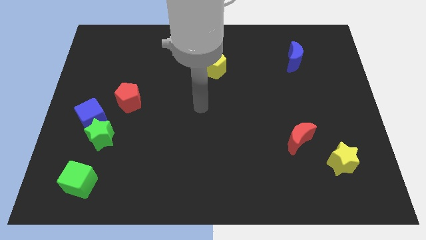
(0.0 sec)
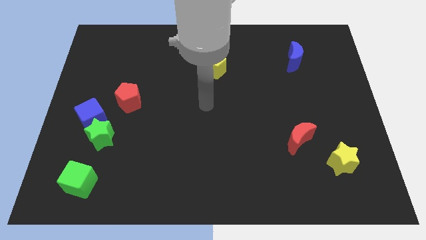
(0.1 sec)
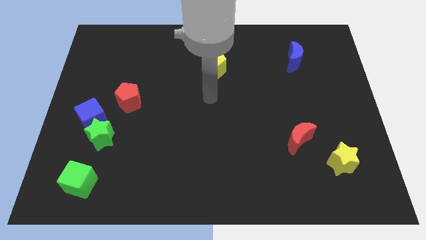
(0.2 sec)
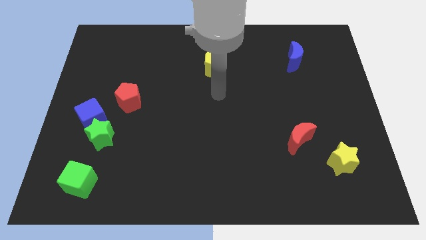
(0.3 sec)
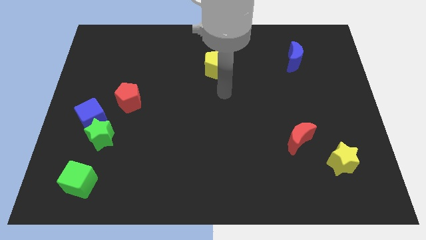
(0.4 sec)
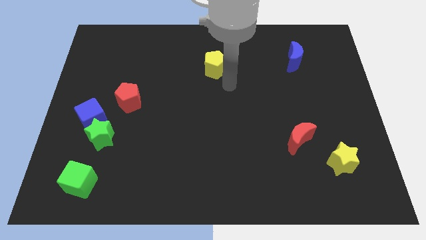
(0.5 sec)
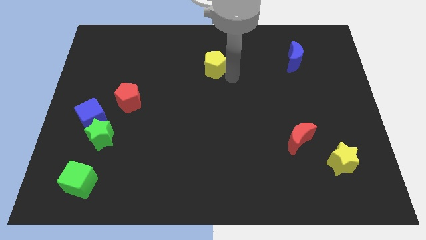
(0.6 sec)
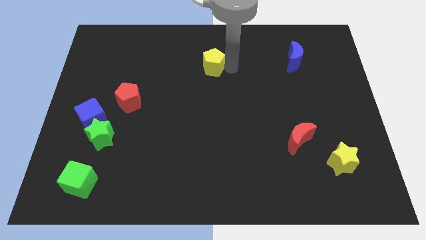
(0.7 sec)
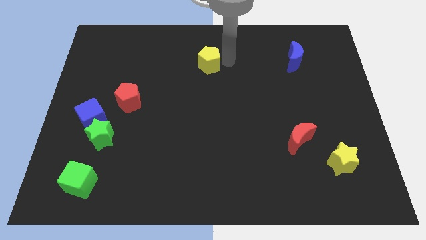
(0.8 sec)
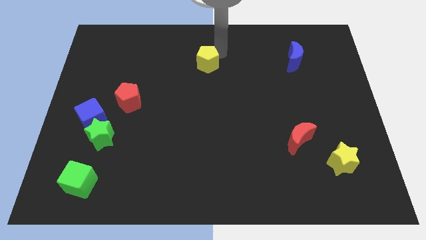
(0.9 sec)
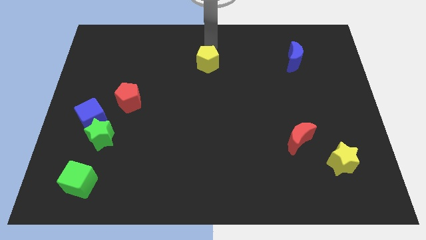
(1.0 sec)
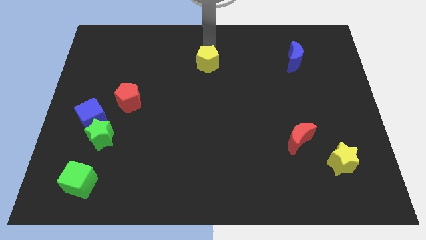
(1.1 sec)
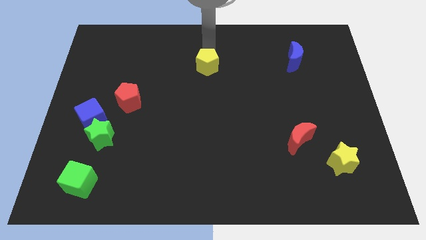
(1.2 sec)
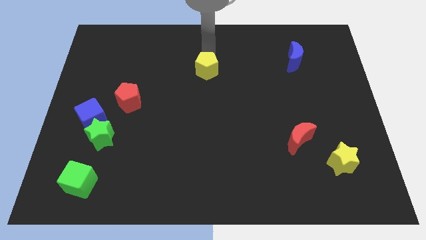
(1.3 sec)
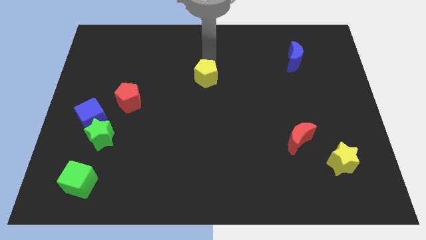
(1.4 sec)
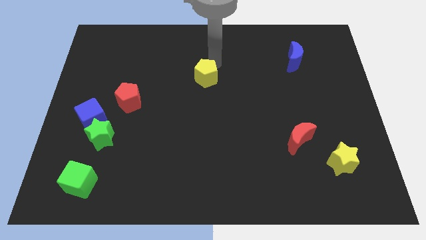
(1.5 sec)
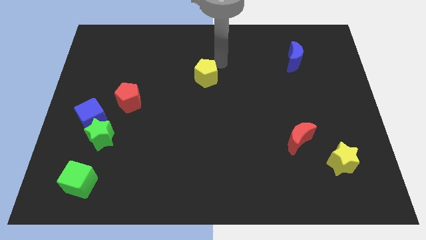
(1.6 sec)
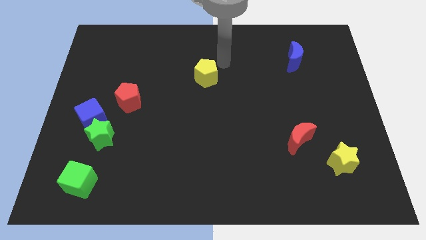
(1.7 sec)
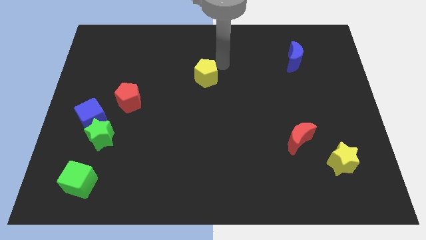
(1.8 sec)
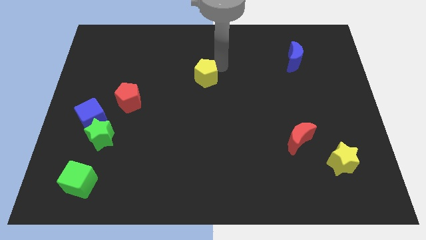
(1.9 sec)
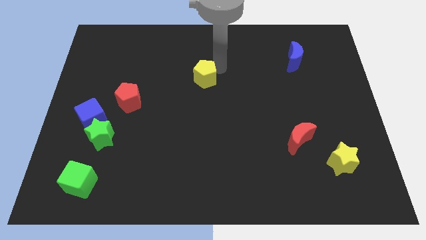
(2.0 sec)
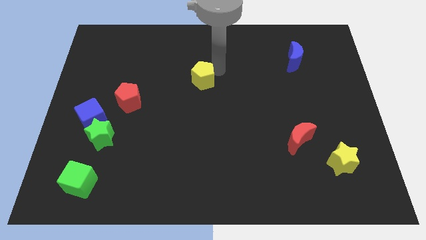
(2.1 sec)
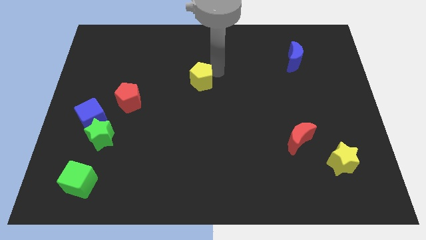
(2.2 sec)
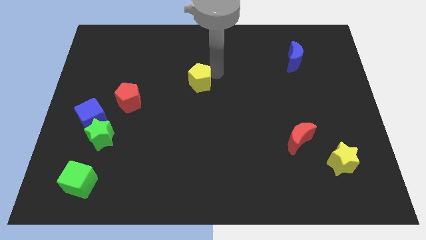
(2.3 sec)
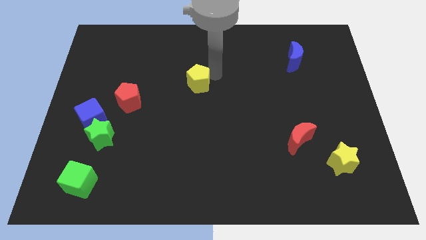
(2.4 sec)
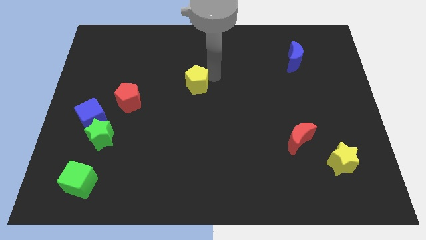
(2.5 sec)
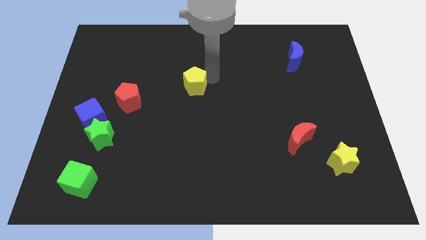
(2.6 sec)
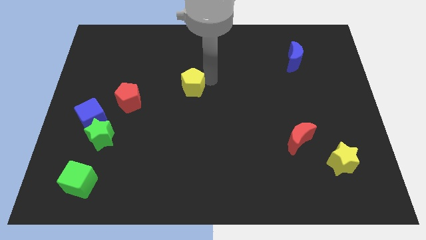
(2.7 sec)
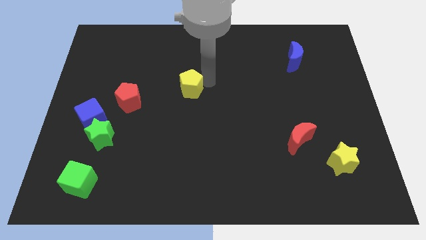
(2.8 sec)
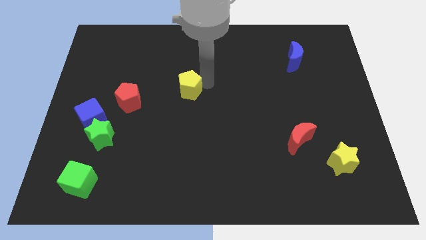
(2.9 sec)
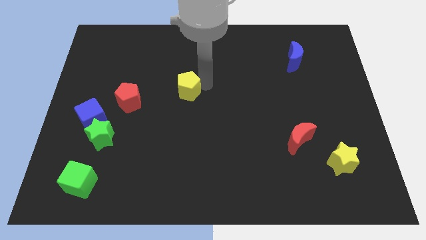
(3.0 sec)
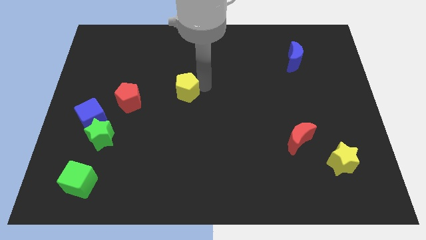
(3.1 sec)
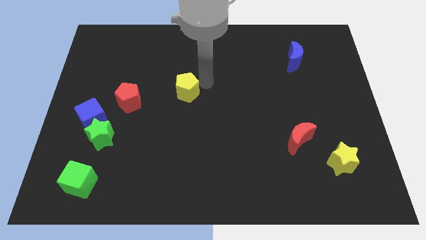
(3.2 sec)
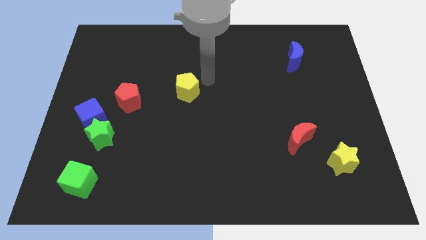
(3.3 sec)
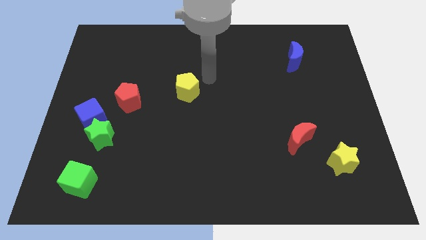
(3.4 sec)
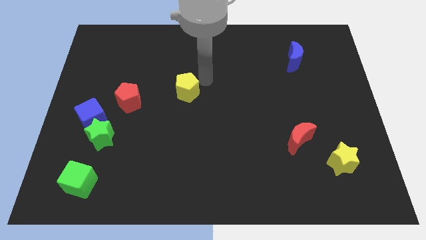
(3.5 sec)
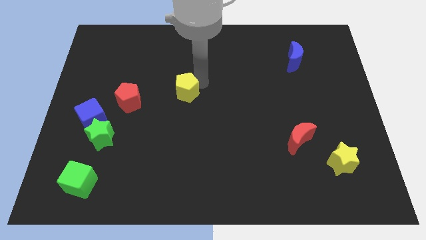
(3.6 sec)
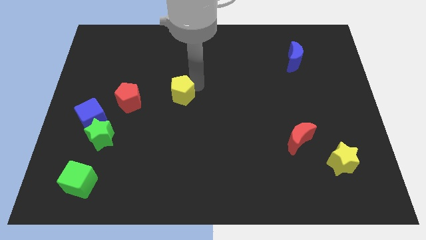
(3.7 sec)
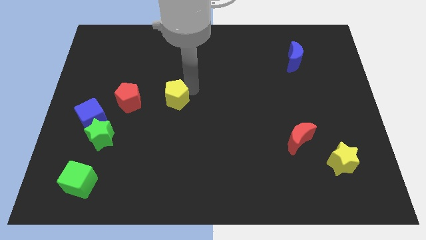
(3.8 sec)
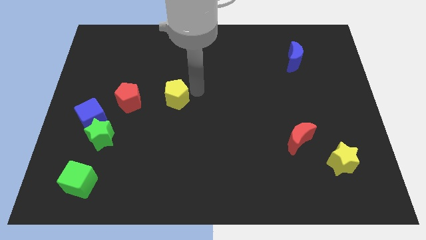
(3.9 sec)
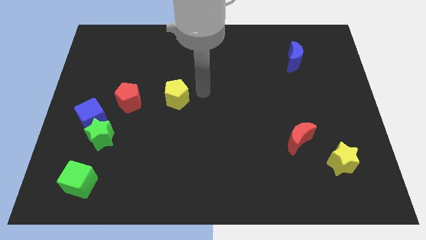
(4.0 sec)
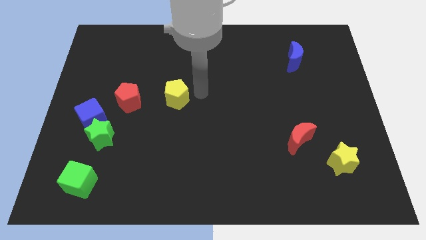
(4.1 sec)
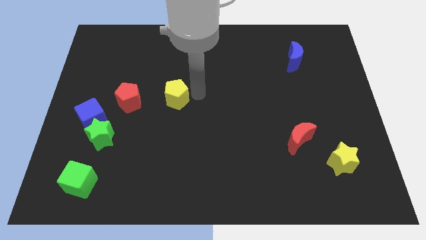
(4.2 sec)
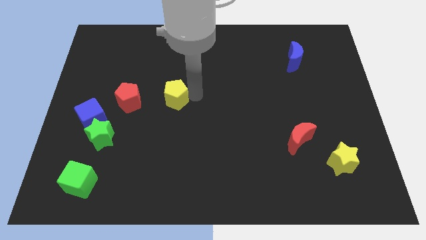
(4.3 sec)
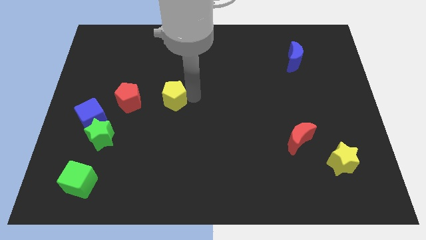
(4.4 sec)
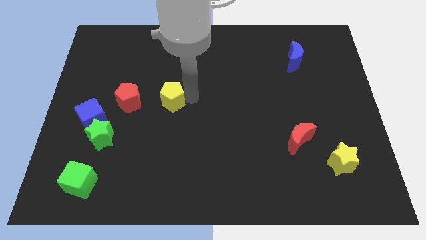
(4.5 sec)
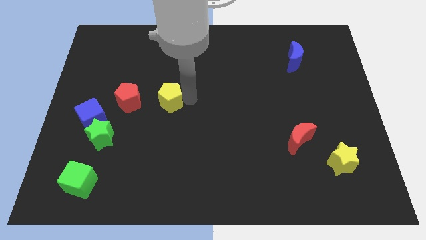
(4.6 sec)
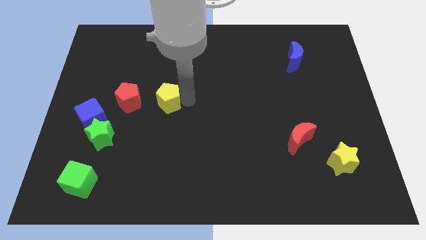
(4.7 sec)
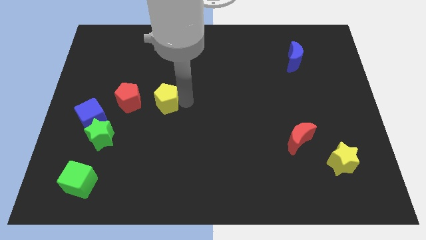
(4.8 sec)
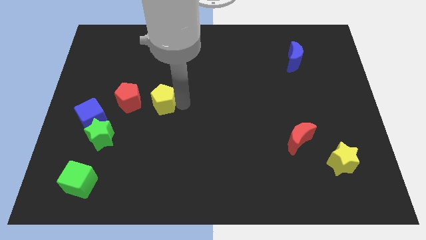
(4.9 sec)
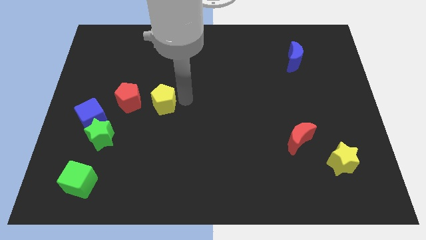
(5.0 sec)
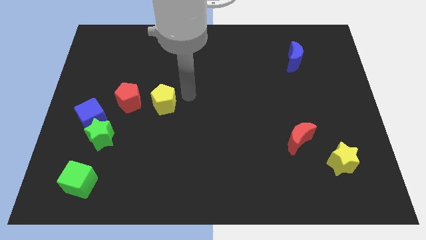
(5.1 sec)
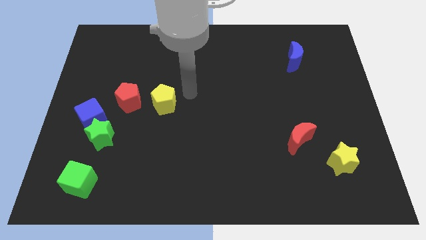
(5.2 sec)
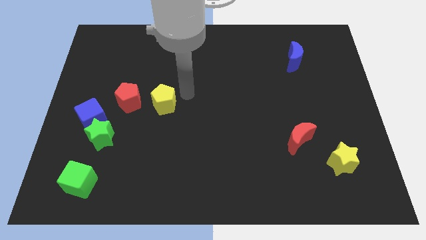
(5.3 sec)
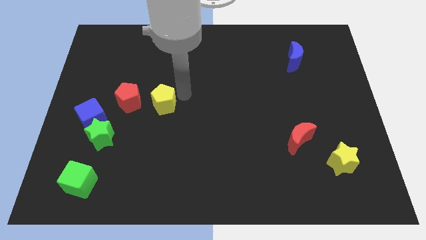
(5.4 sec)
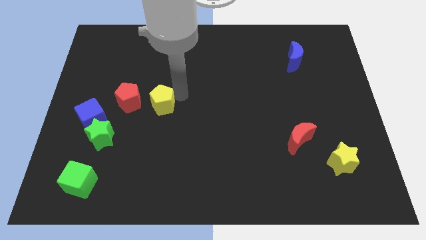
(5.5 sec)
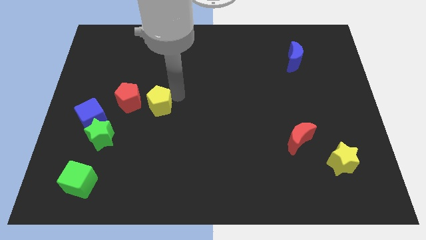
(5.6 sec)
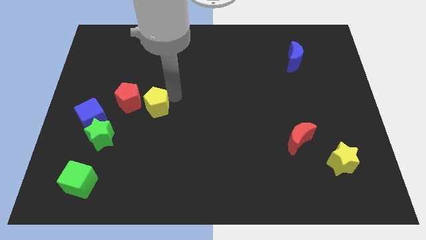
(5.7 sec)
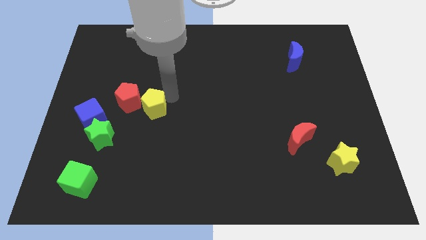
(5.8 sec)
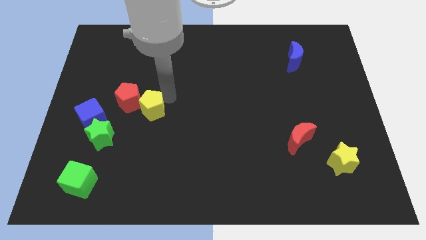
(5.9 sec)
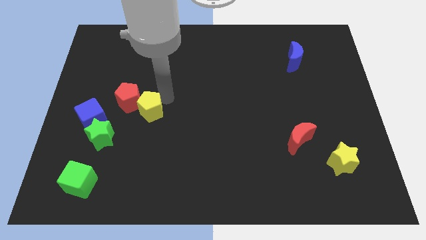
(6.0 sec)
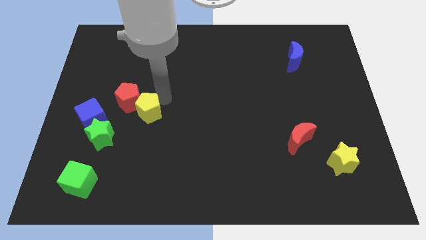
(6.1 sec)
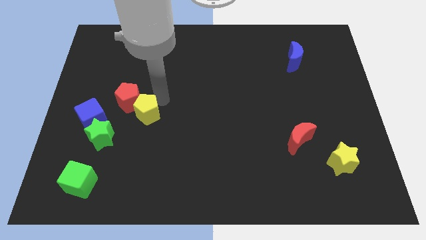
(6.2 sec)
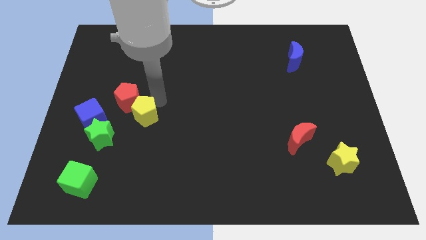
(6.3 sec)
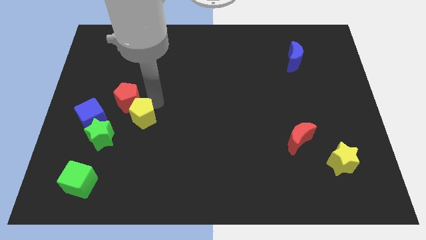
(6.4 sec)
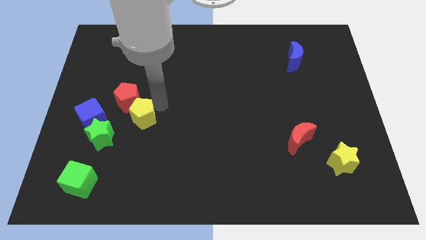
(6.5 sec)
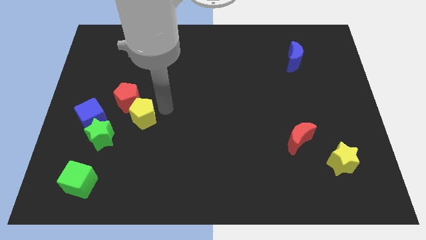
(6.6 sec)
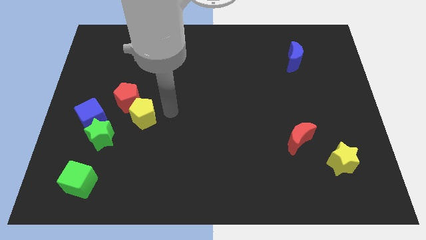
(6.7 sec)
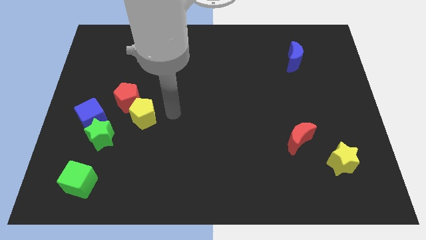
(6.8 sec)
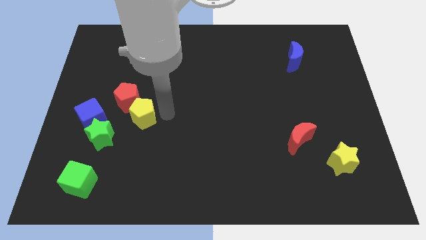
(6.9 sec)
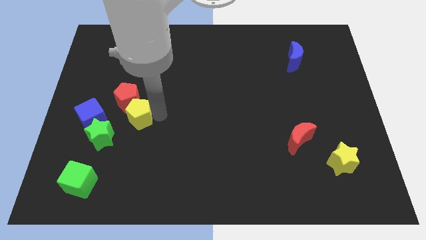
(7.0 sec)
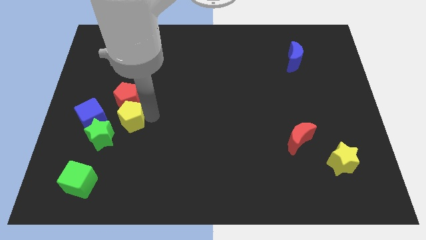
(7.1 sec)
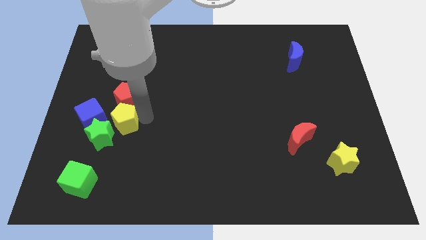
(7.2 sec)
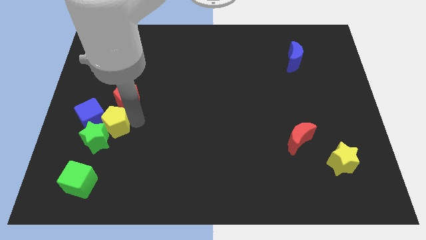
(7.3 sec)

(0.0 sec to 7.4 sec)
put the yellow pentagon towards the blue cube
